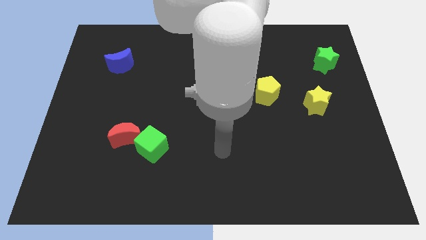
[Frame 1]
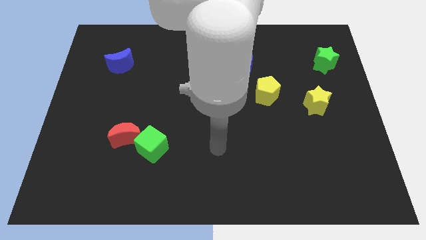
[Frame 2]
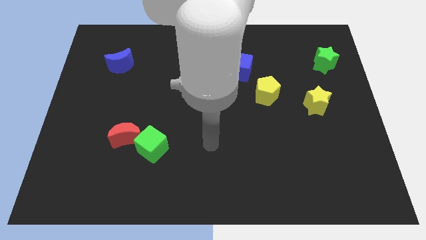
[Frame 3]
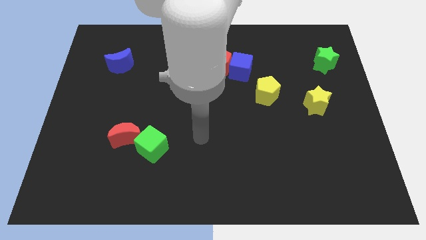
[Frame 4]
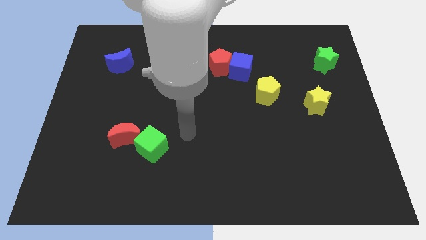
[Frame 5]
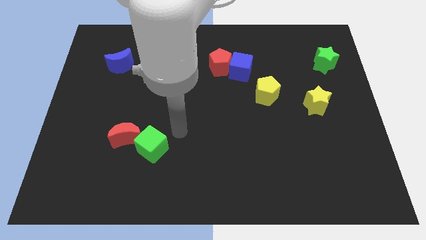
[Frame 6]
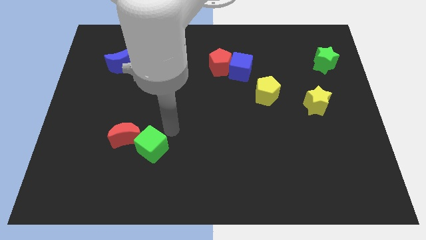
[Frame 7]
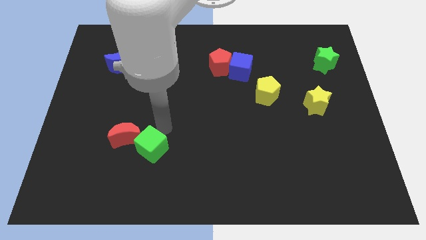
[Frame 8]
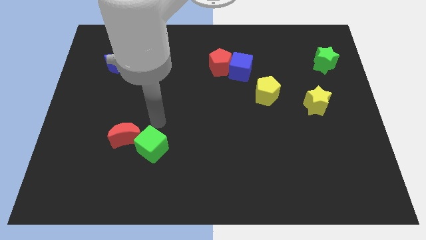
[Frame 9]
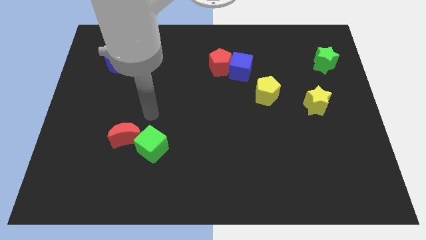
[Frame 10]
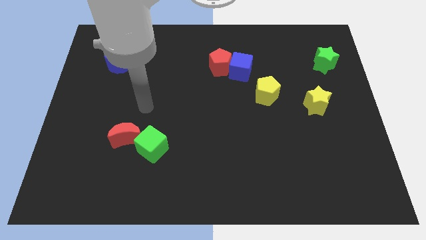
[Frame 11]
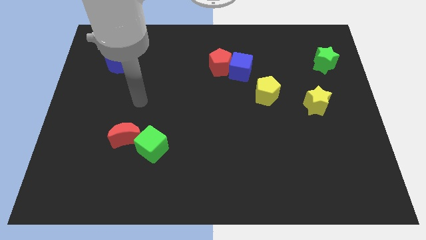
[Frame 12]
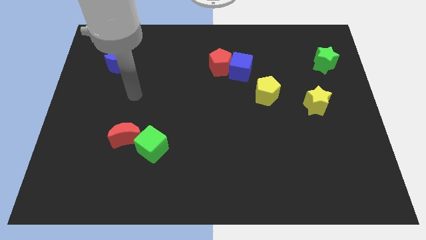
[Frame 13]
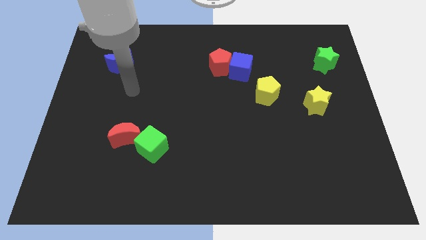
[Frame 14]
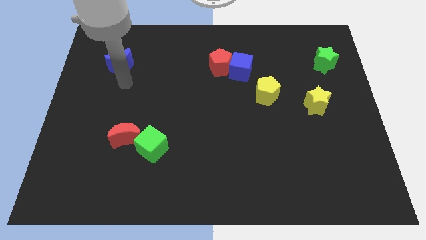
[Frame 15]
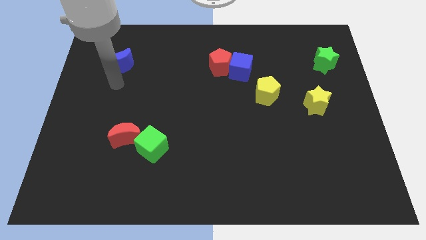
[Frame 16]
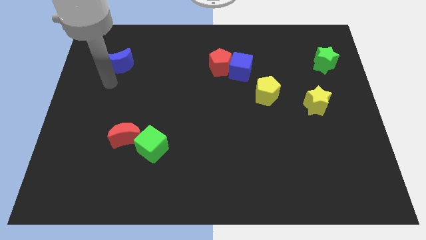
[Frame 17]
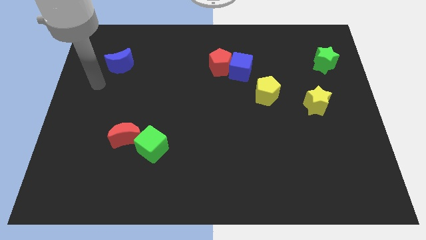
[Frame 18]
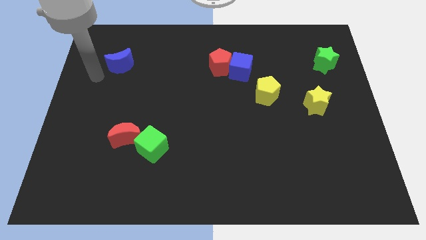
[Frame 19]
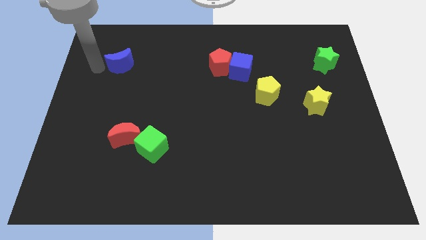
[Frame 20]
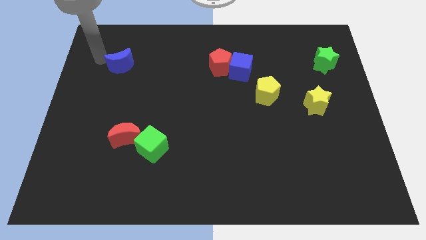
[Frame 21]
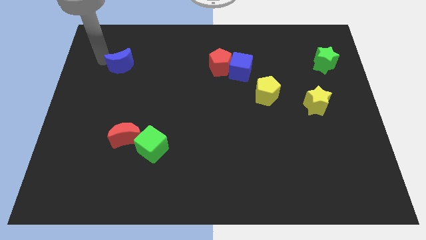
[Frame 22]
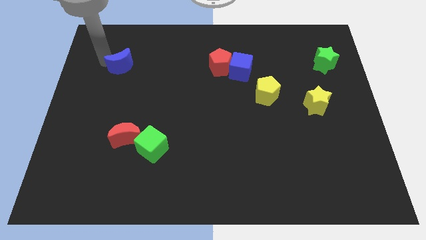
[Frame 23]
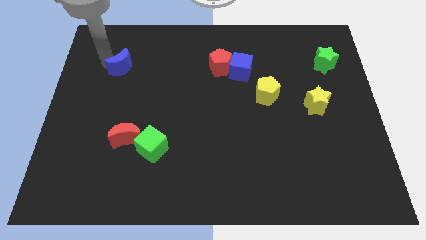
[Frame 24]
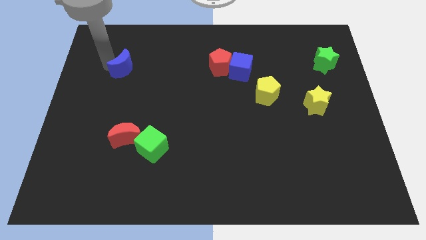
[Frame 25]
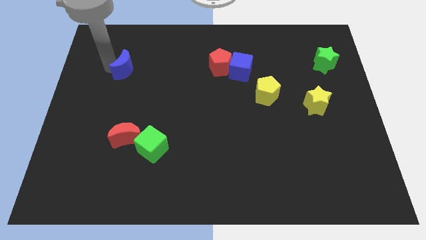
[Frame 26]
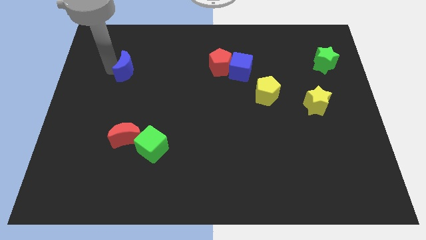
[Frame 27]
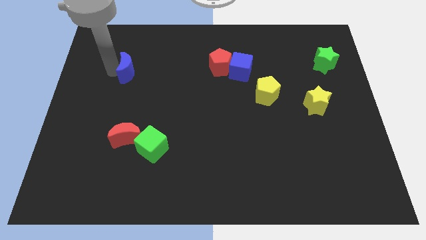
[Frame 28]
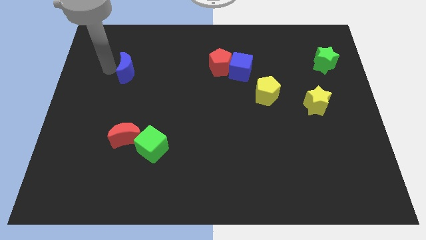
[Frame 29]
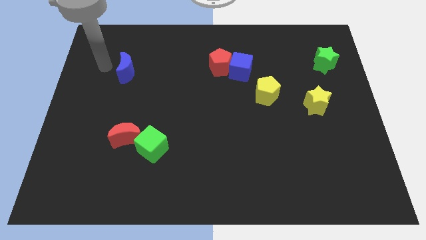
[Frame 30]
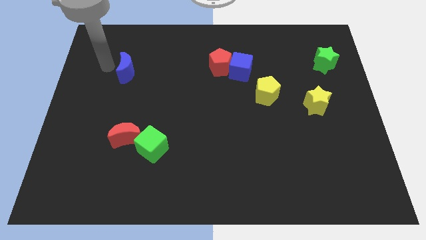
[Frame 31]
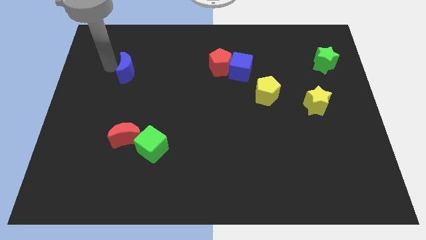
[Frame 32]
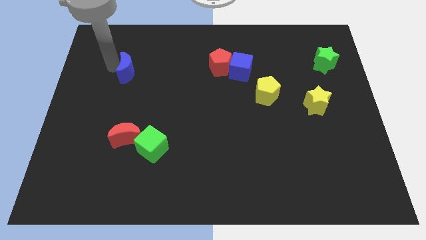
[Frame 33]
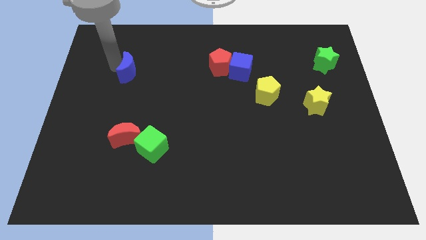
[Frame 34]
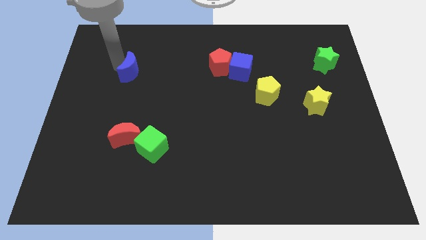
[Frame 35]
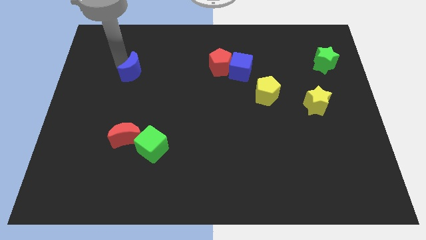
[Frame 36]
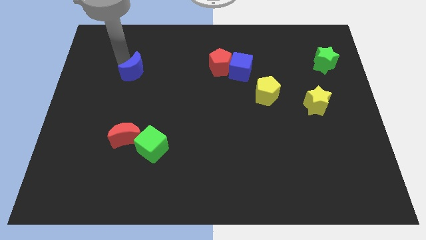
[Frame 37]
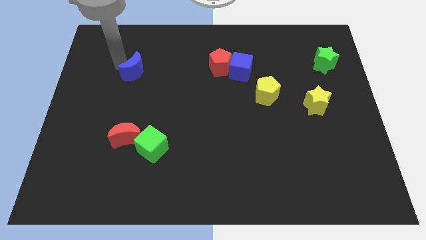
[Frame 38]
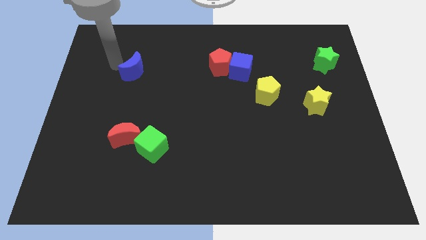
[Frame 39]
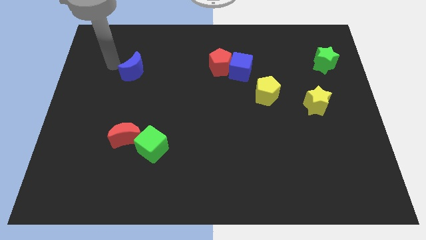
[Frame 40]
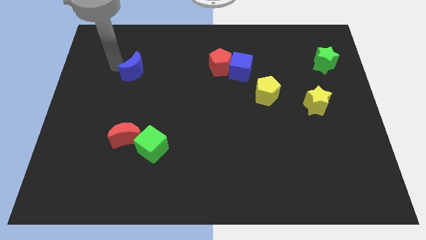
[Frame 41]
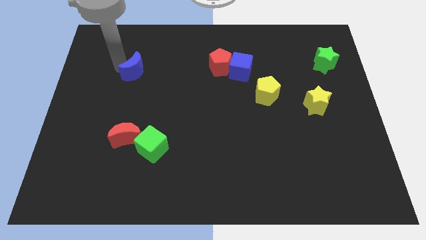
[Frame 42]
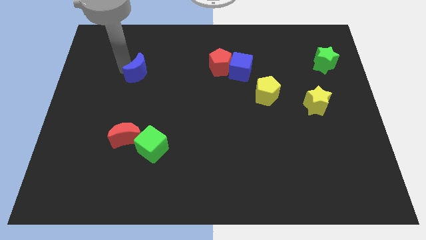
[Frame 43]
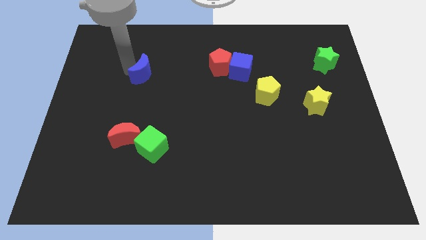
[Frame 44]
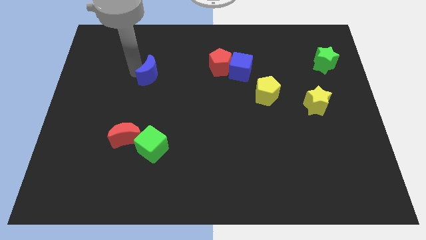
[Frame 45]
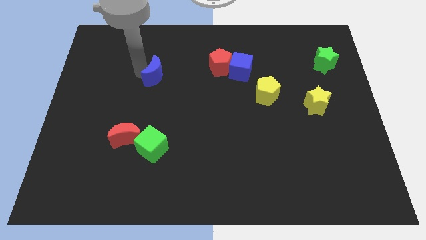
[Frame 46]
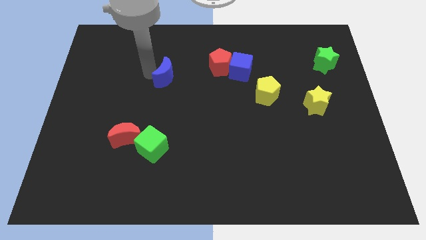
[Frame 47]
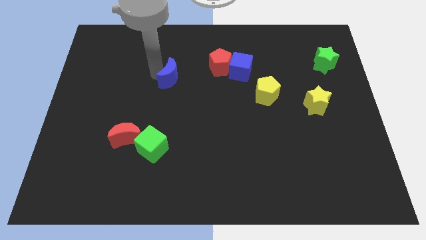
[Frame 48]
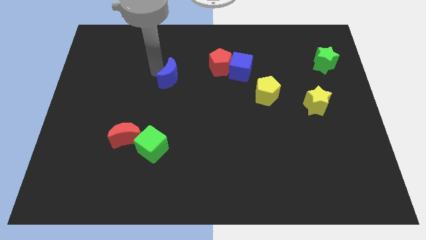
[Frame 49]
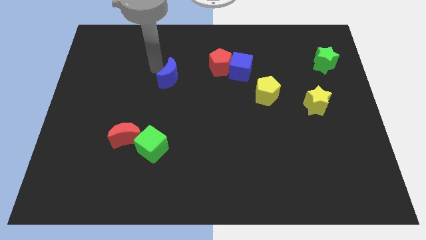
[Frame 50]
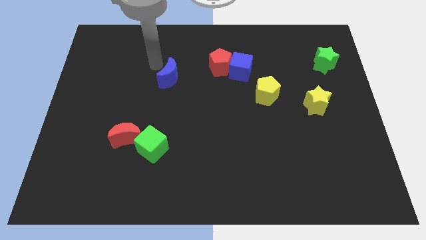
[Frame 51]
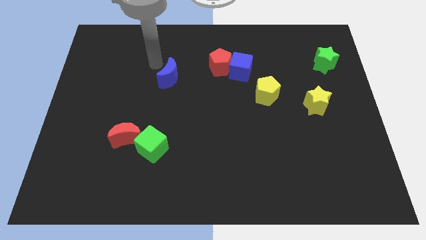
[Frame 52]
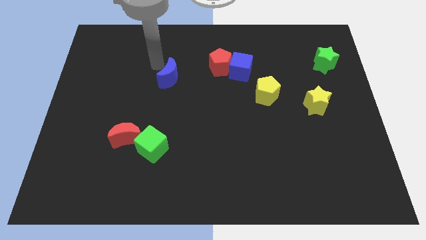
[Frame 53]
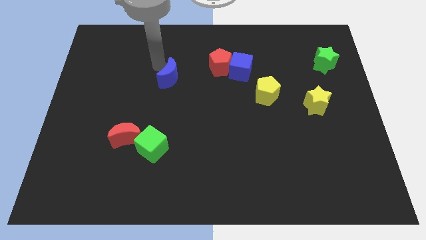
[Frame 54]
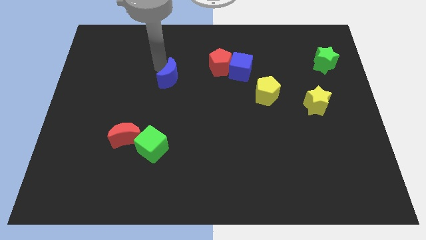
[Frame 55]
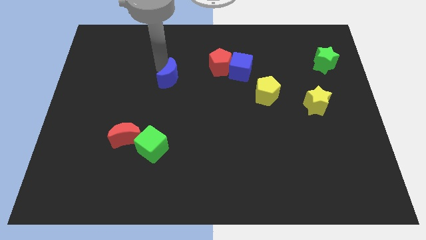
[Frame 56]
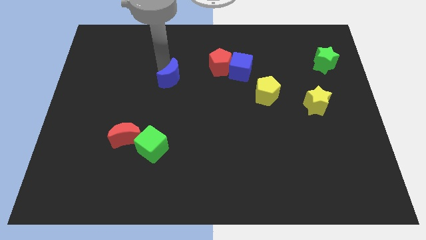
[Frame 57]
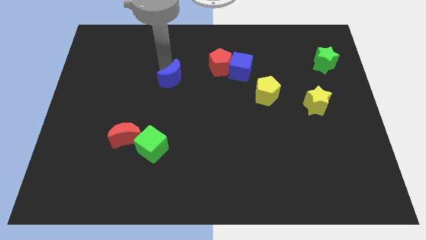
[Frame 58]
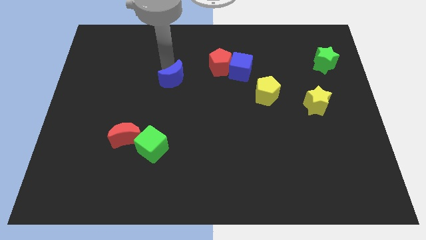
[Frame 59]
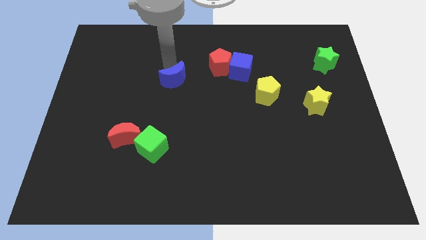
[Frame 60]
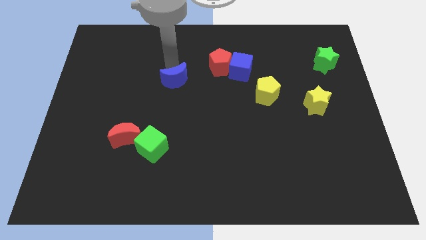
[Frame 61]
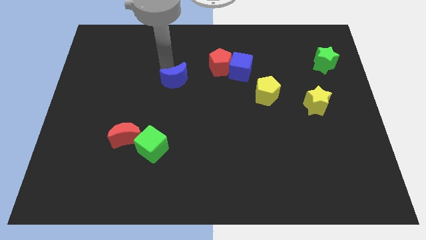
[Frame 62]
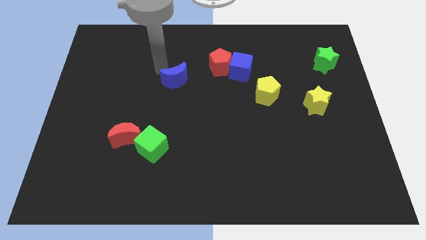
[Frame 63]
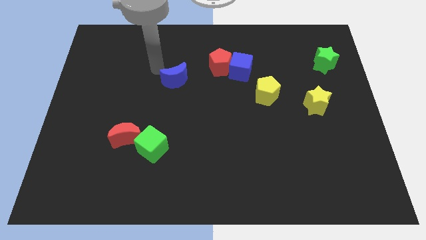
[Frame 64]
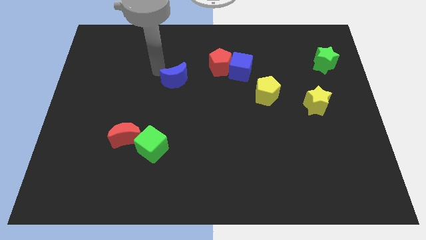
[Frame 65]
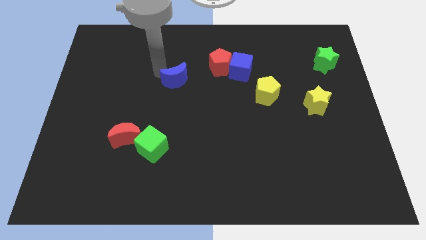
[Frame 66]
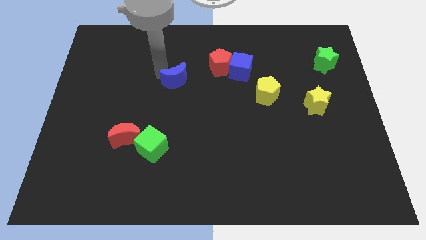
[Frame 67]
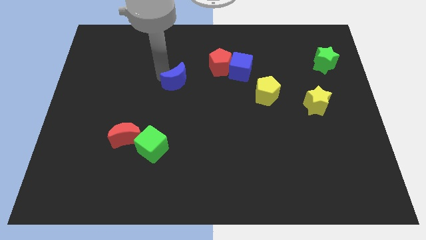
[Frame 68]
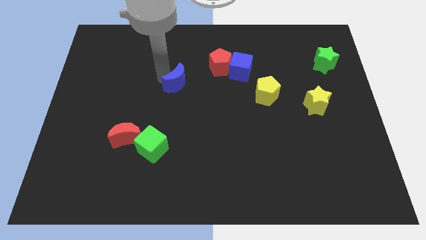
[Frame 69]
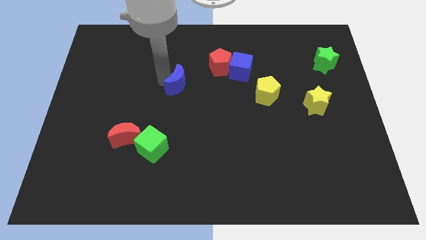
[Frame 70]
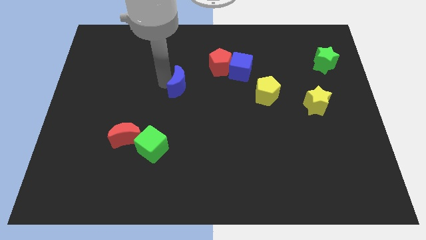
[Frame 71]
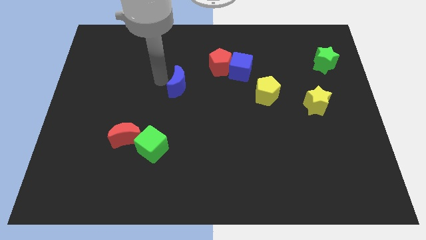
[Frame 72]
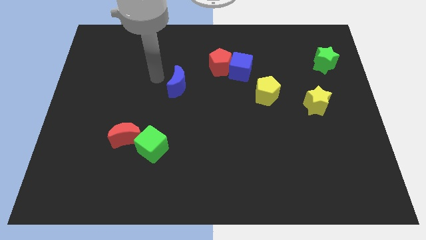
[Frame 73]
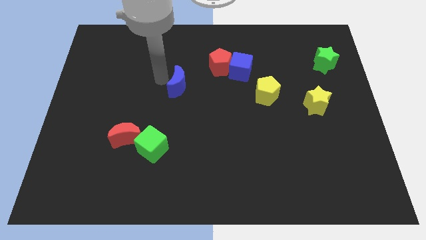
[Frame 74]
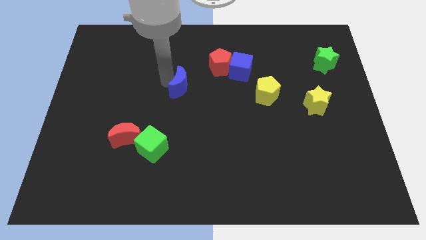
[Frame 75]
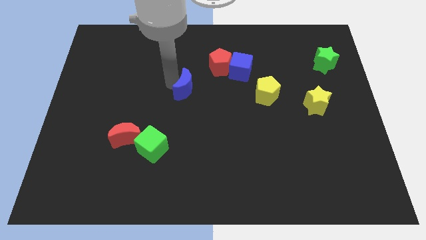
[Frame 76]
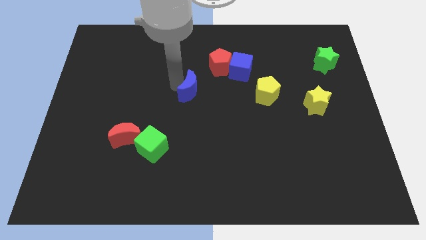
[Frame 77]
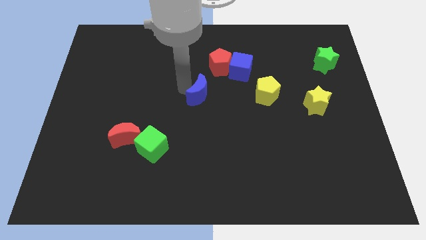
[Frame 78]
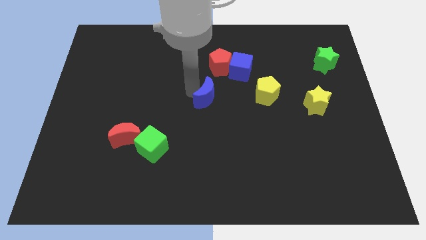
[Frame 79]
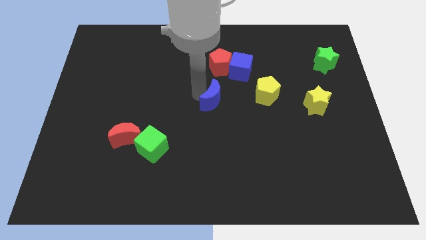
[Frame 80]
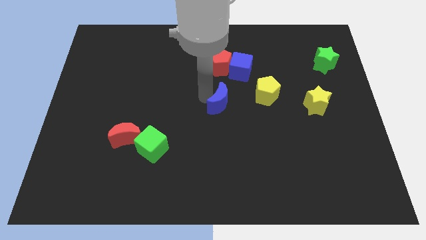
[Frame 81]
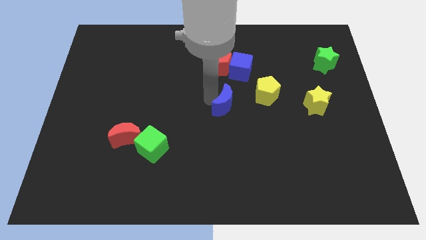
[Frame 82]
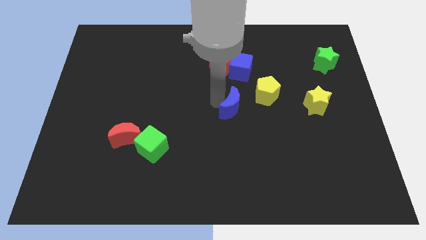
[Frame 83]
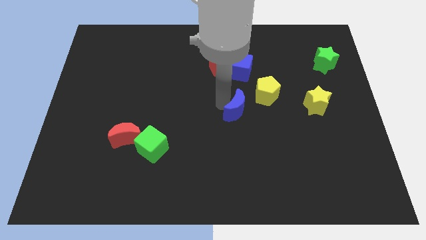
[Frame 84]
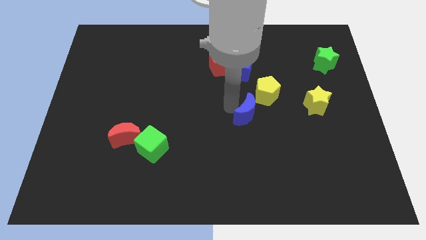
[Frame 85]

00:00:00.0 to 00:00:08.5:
slide the blue moon to the bottom of the yellow pentagon
